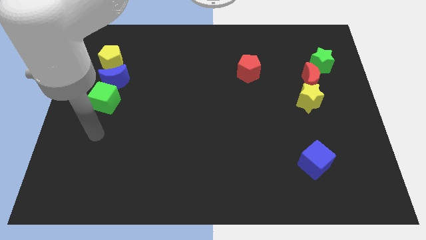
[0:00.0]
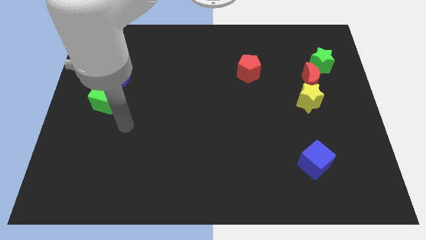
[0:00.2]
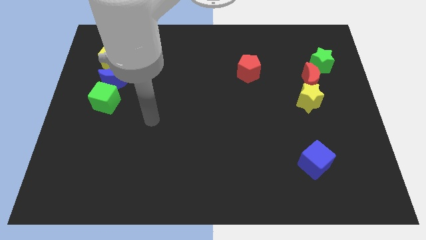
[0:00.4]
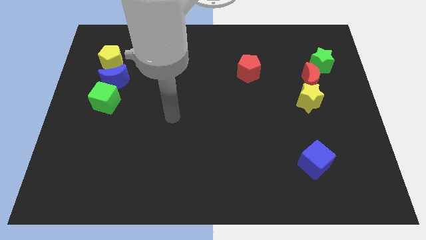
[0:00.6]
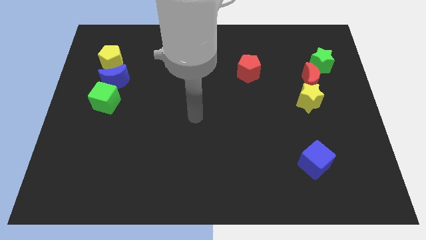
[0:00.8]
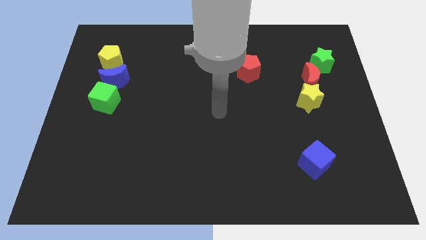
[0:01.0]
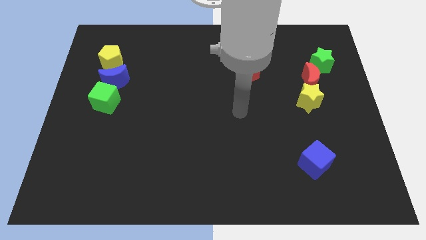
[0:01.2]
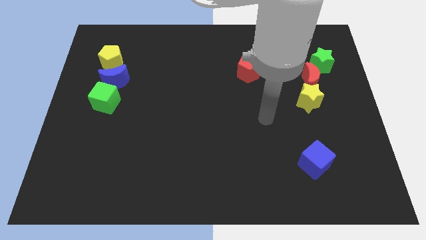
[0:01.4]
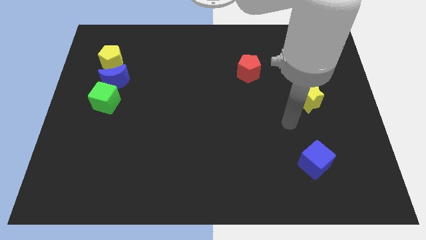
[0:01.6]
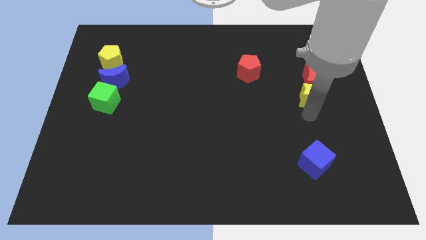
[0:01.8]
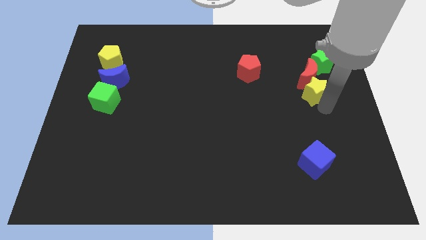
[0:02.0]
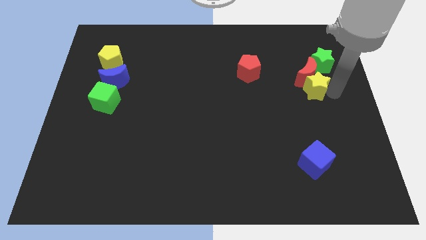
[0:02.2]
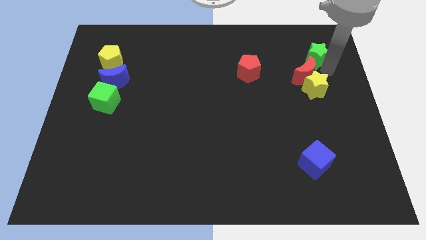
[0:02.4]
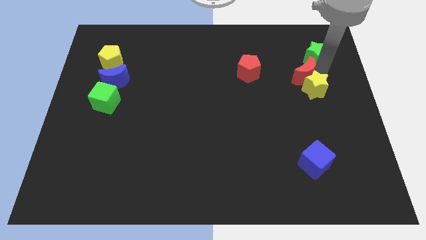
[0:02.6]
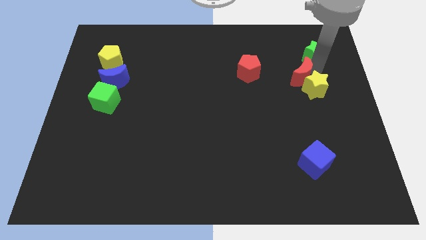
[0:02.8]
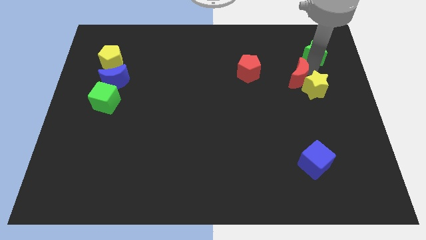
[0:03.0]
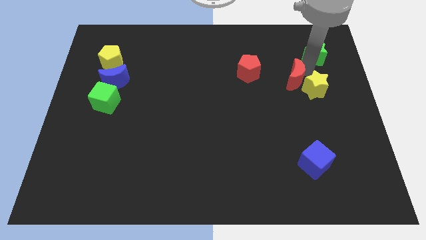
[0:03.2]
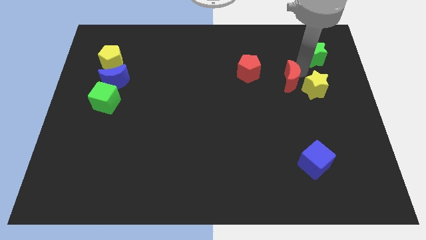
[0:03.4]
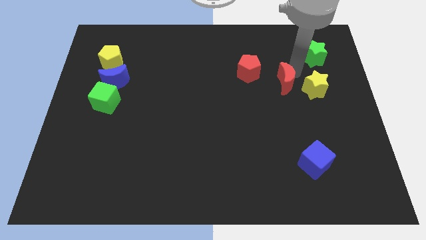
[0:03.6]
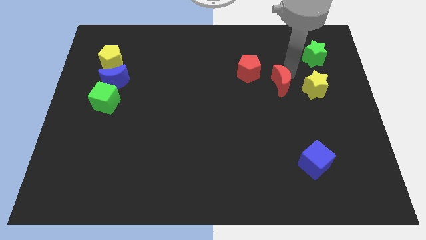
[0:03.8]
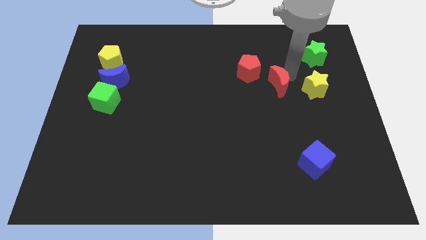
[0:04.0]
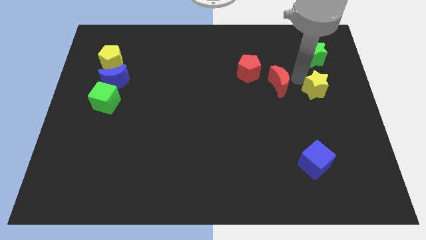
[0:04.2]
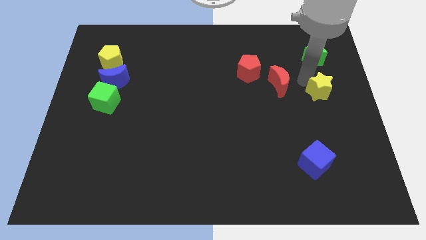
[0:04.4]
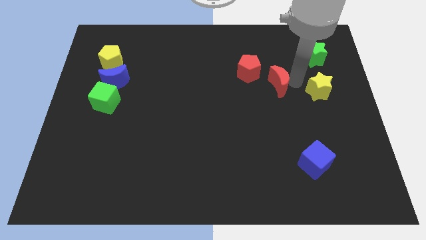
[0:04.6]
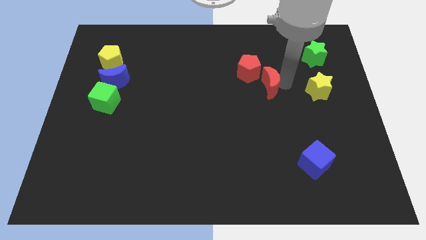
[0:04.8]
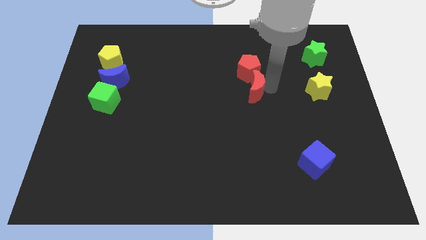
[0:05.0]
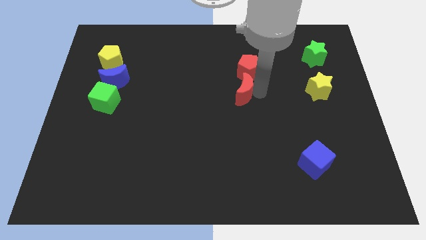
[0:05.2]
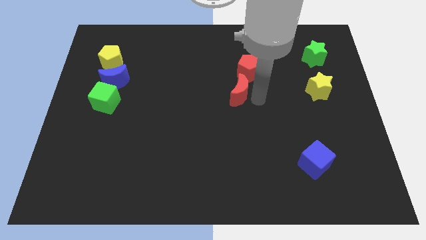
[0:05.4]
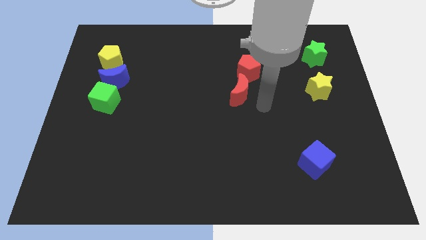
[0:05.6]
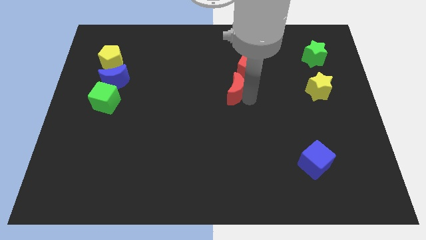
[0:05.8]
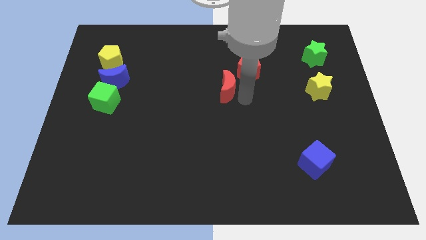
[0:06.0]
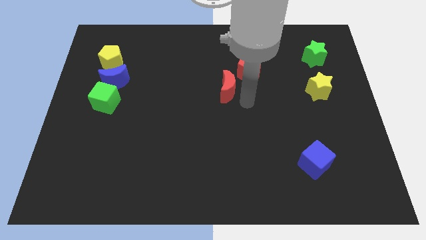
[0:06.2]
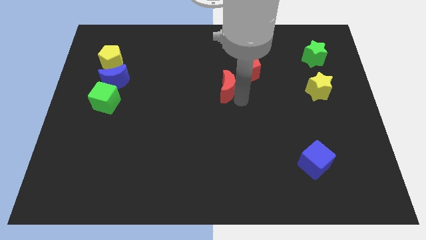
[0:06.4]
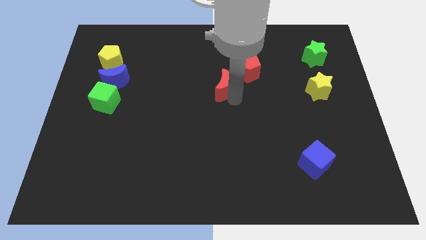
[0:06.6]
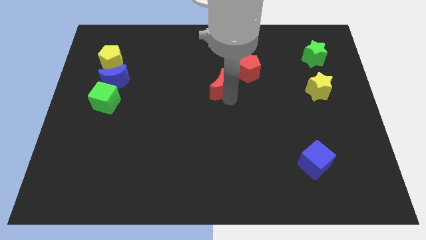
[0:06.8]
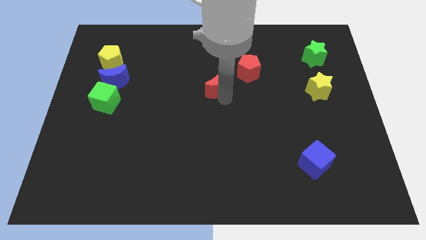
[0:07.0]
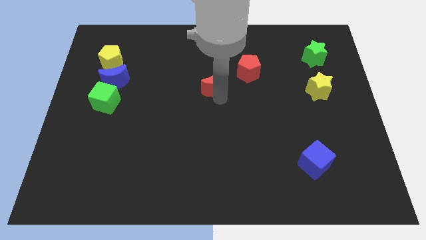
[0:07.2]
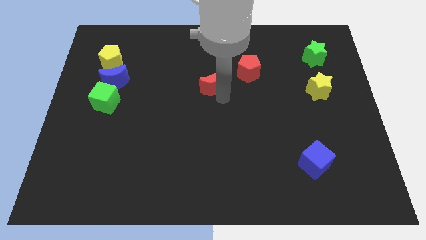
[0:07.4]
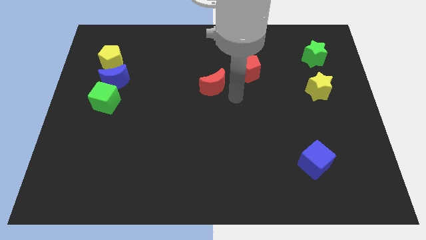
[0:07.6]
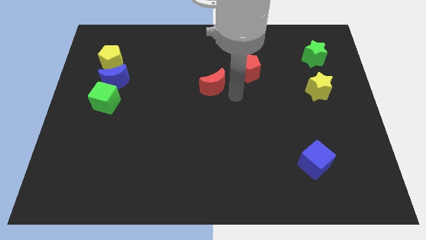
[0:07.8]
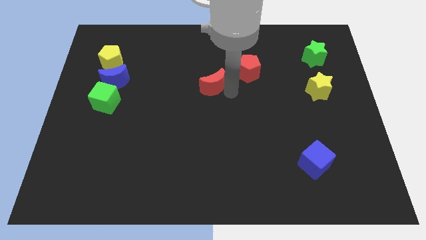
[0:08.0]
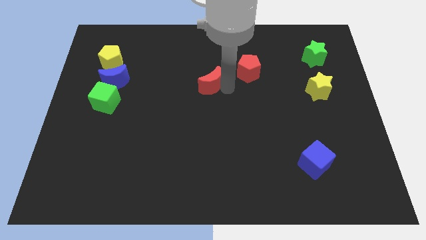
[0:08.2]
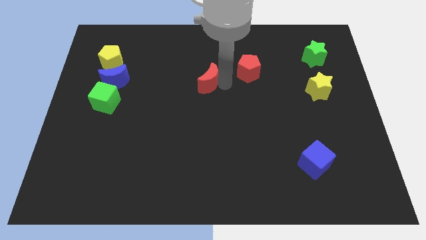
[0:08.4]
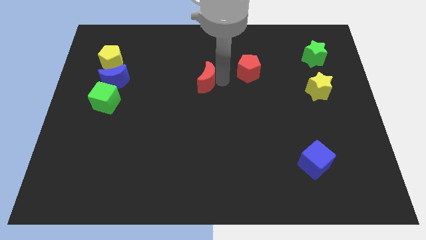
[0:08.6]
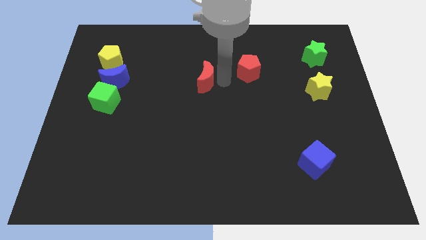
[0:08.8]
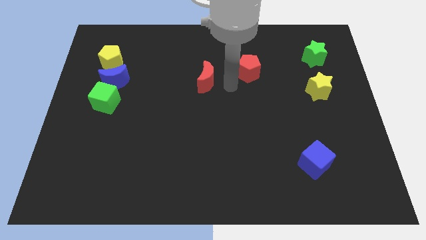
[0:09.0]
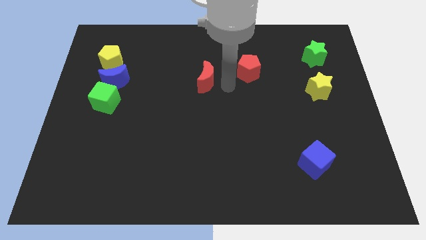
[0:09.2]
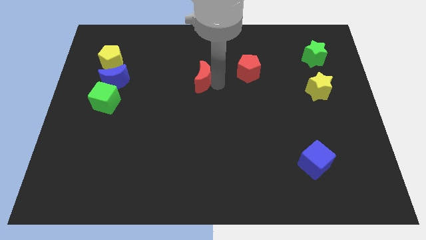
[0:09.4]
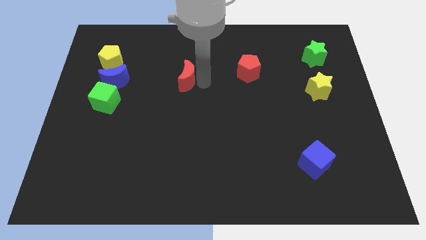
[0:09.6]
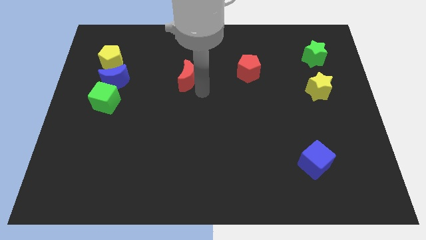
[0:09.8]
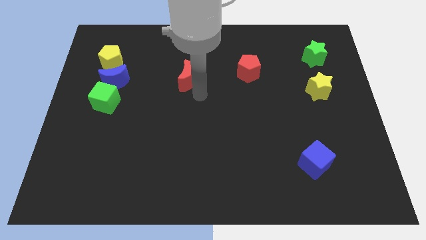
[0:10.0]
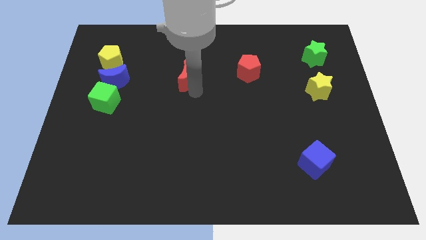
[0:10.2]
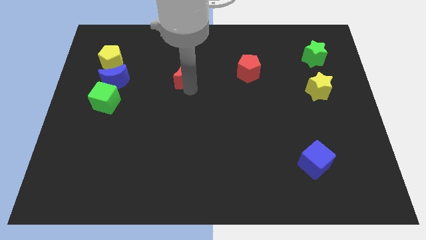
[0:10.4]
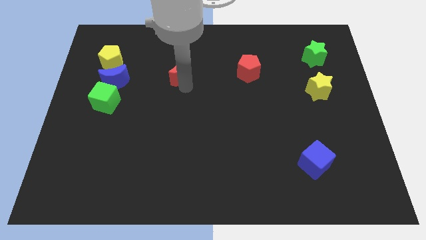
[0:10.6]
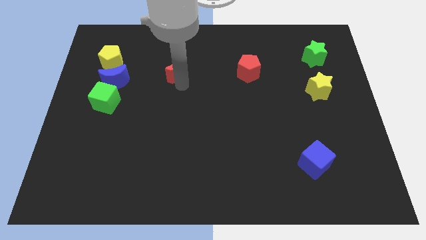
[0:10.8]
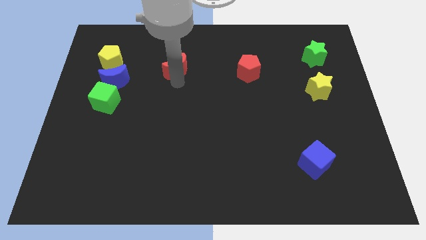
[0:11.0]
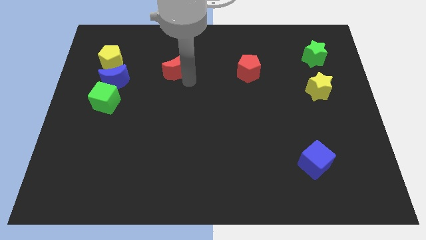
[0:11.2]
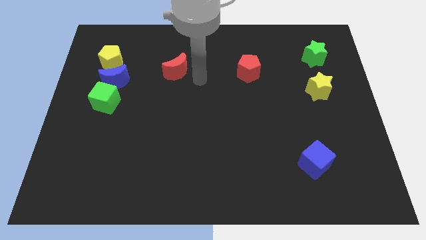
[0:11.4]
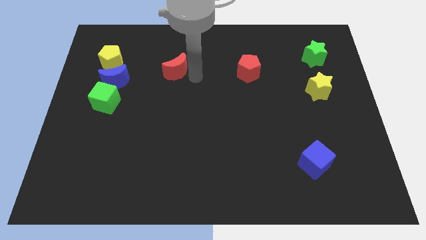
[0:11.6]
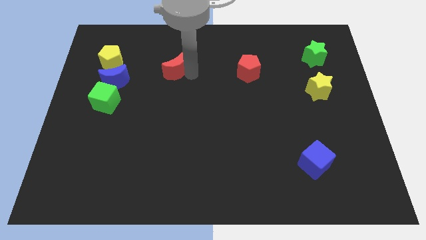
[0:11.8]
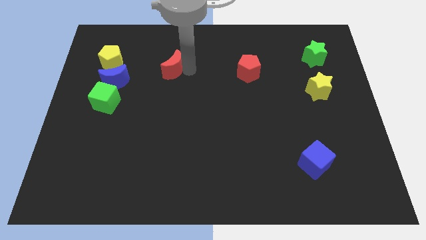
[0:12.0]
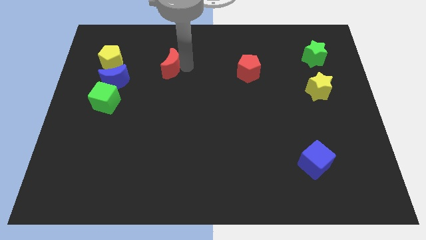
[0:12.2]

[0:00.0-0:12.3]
slide the red moon to the right side of the yellow pentagon

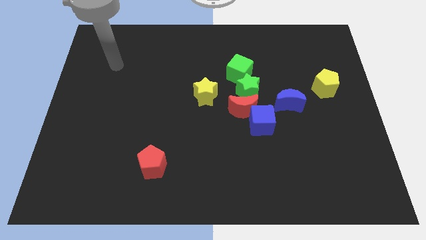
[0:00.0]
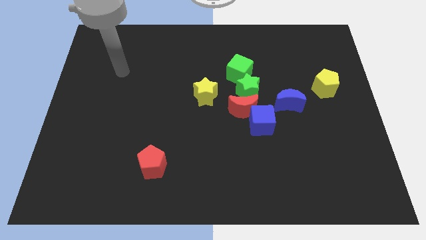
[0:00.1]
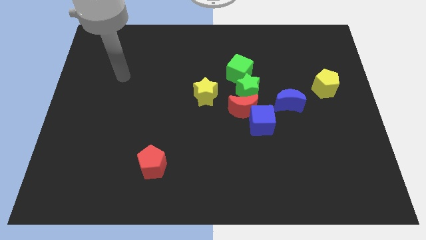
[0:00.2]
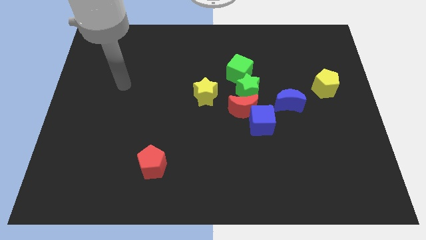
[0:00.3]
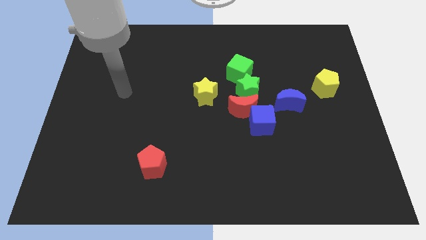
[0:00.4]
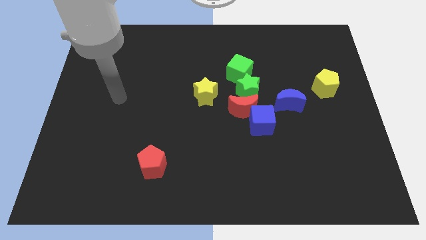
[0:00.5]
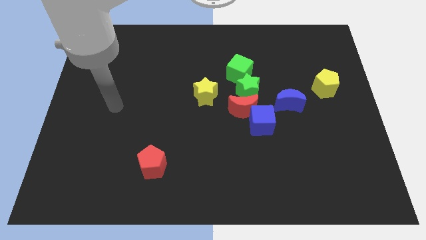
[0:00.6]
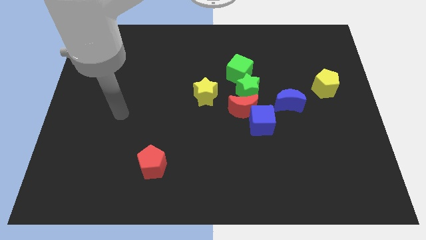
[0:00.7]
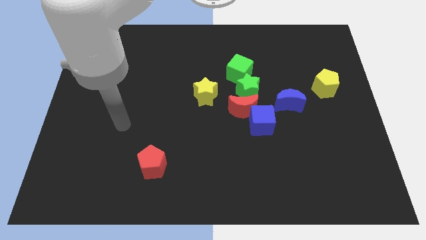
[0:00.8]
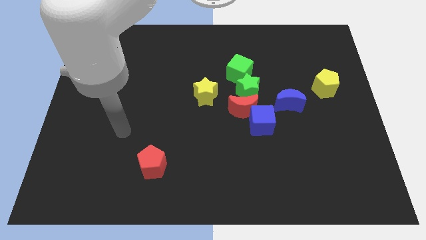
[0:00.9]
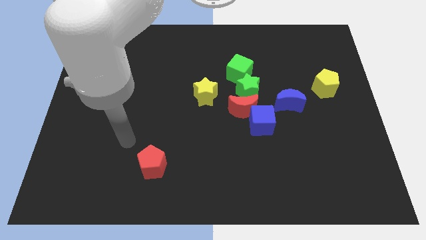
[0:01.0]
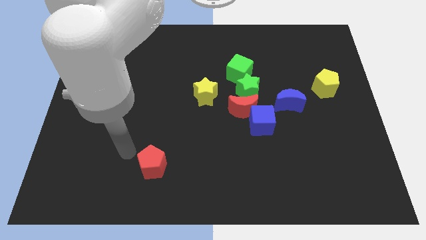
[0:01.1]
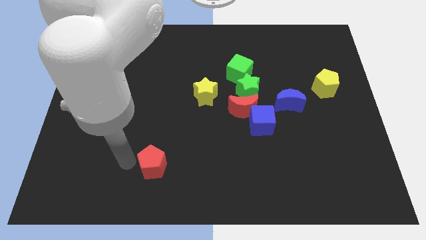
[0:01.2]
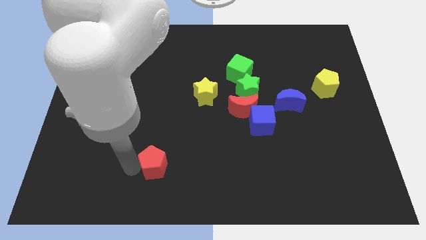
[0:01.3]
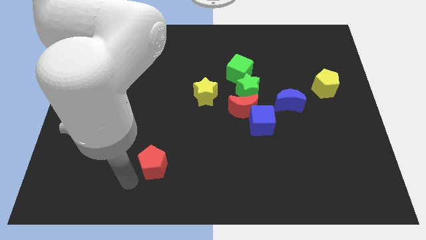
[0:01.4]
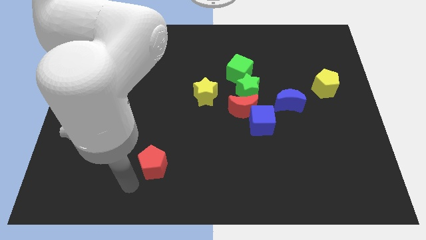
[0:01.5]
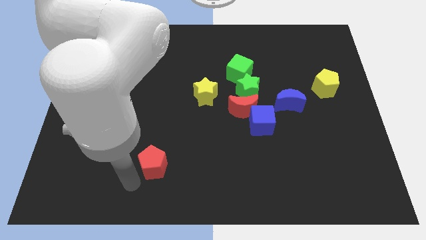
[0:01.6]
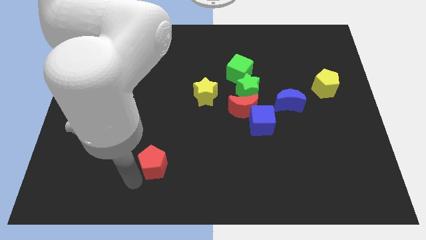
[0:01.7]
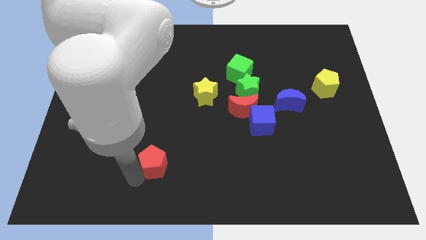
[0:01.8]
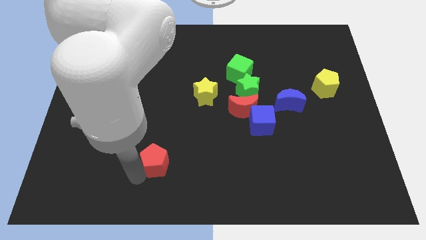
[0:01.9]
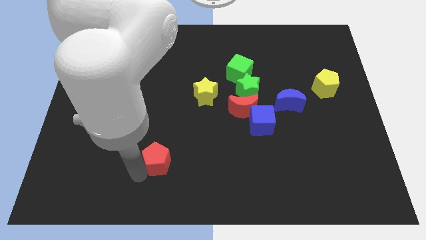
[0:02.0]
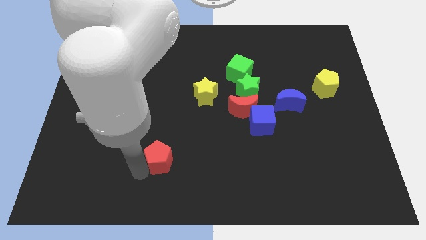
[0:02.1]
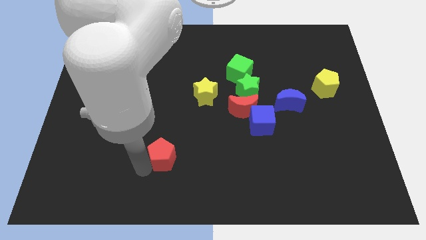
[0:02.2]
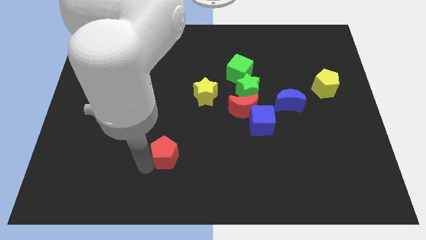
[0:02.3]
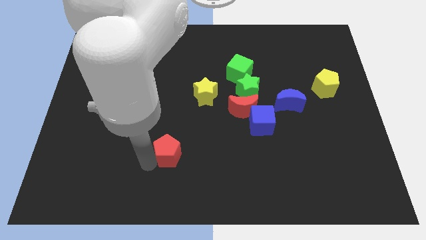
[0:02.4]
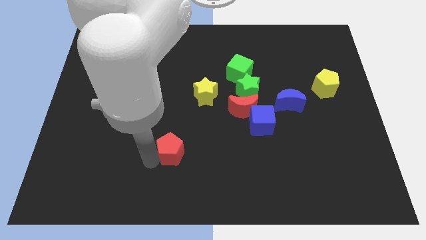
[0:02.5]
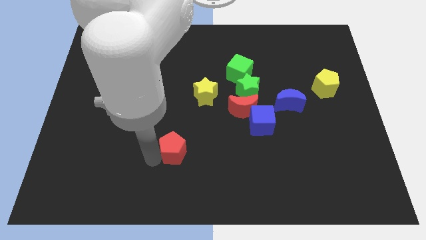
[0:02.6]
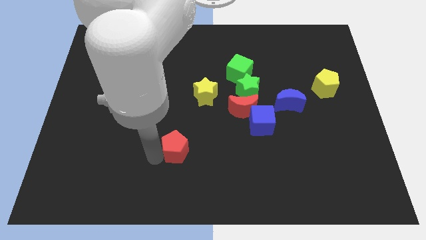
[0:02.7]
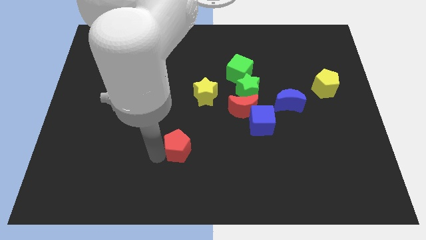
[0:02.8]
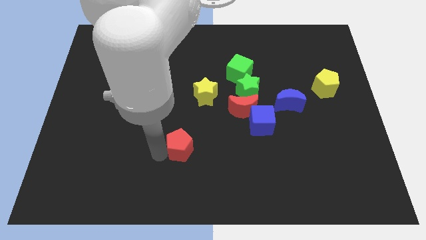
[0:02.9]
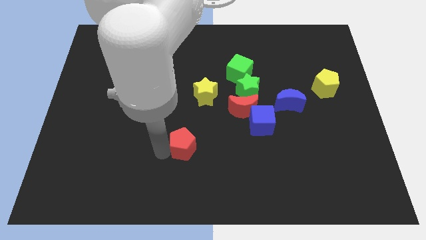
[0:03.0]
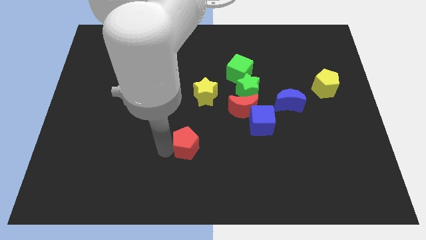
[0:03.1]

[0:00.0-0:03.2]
put the red pentagon to the bottom side of the yellow star
